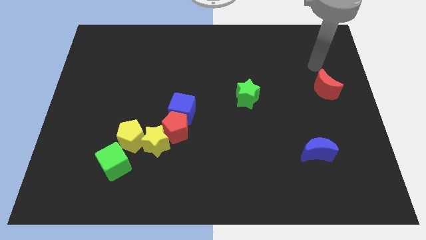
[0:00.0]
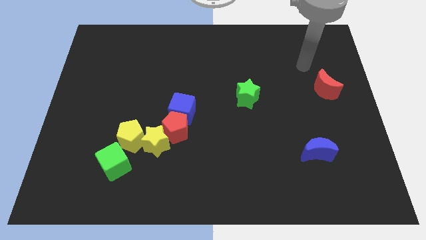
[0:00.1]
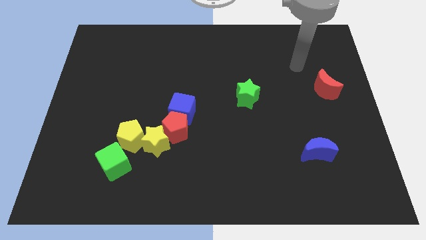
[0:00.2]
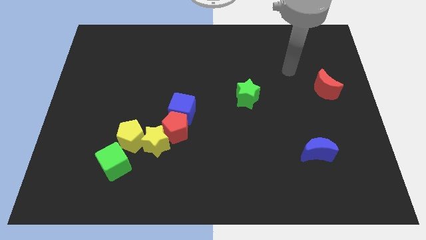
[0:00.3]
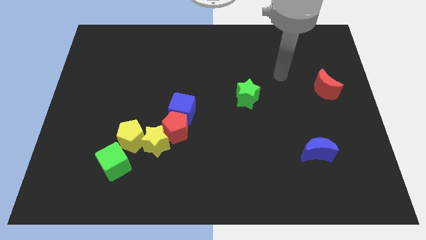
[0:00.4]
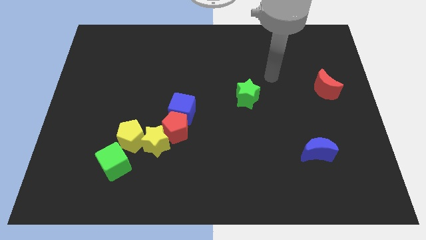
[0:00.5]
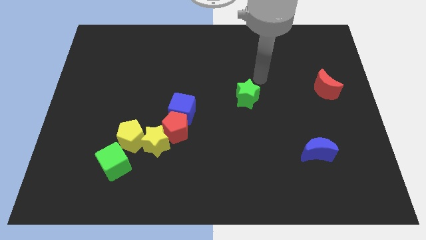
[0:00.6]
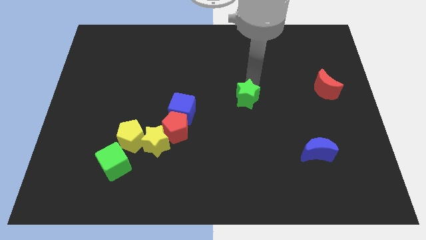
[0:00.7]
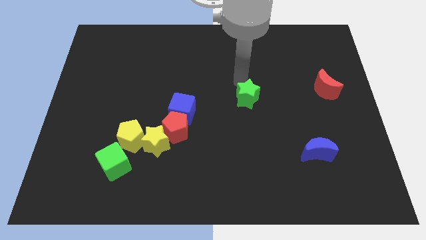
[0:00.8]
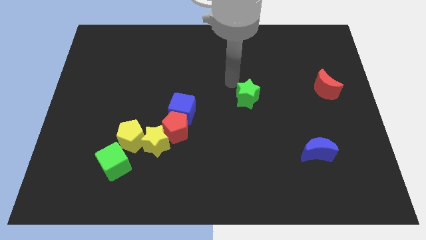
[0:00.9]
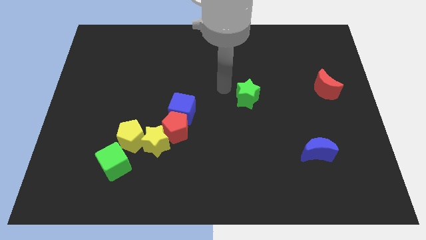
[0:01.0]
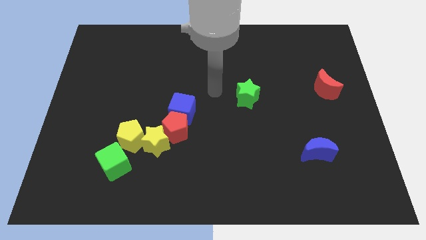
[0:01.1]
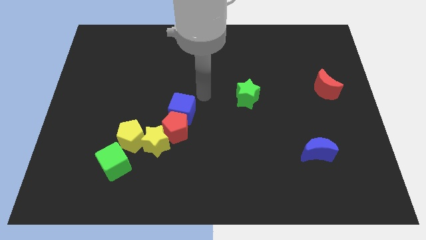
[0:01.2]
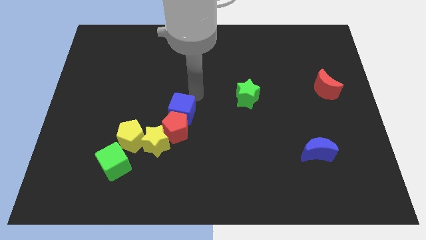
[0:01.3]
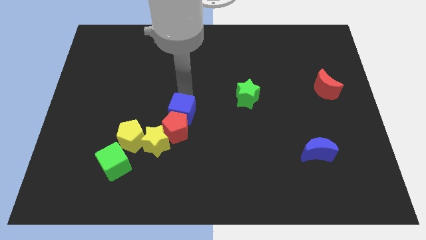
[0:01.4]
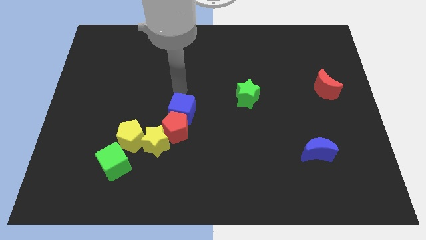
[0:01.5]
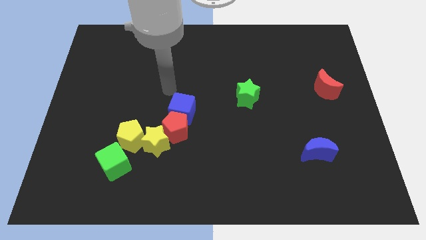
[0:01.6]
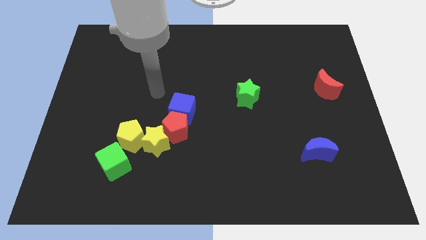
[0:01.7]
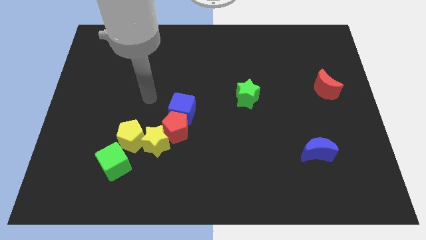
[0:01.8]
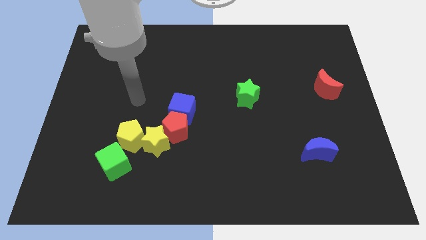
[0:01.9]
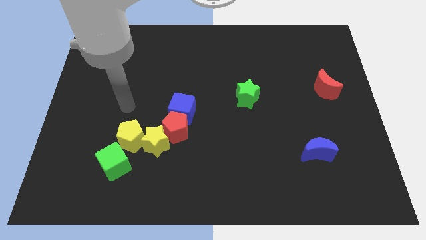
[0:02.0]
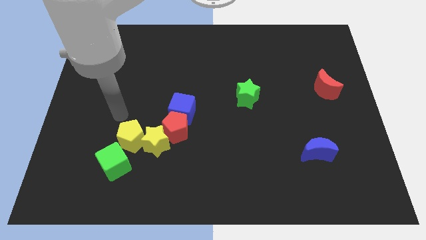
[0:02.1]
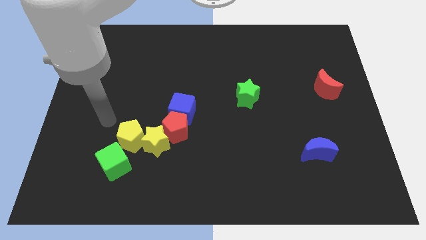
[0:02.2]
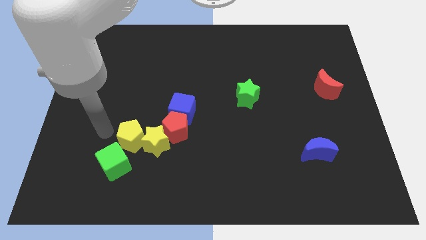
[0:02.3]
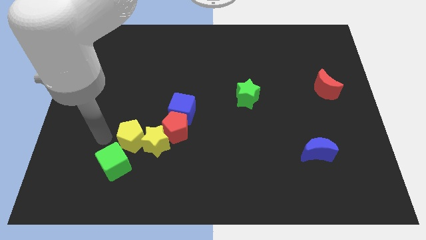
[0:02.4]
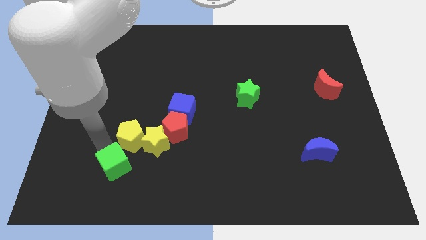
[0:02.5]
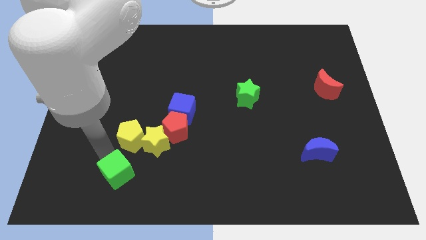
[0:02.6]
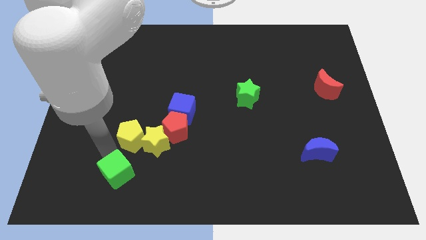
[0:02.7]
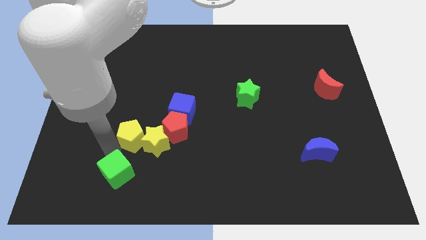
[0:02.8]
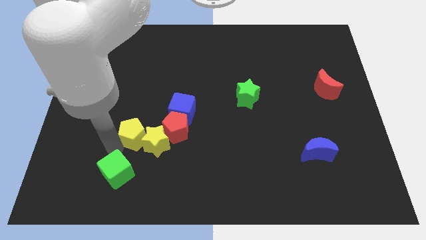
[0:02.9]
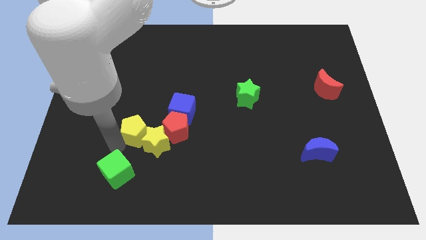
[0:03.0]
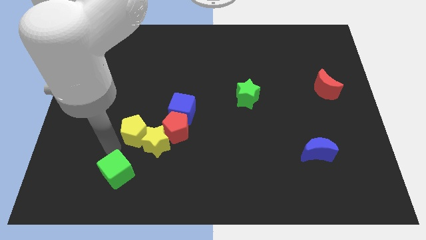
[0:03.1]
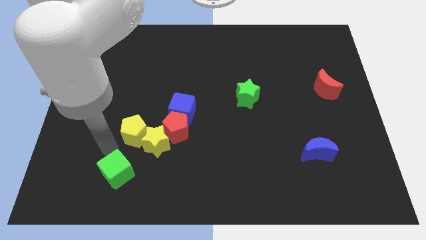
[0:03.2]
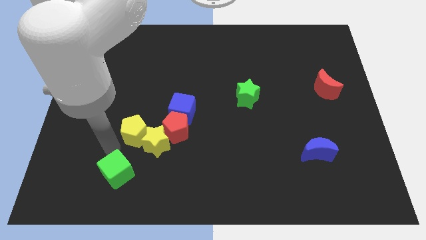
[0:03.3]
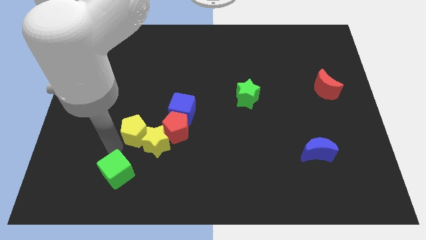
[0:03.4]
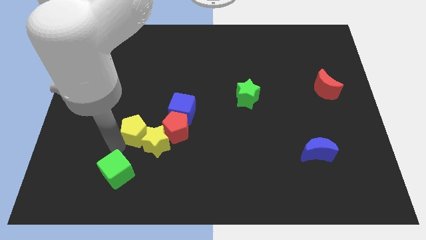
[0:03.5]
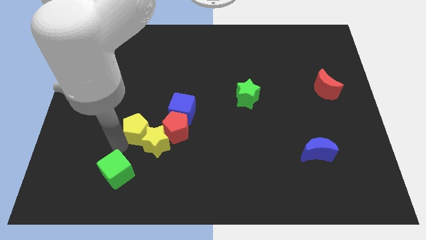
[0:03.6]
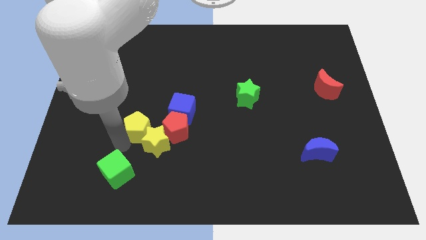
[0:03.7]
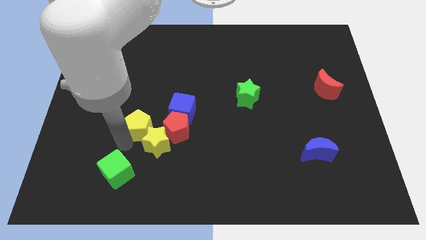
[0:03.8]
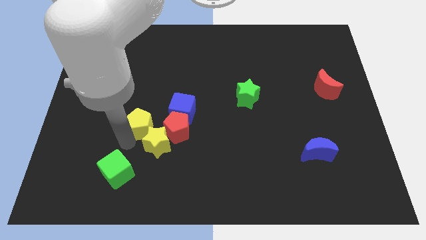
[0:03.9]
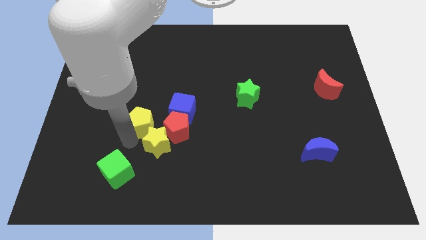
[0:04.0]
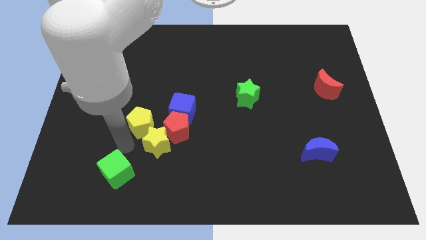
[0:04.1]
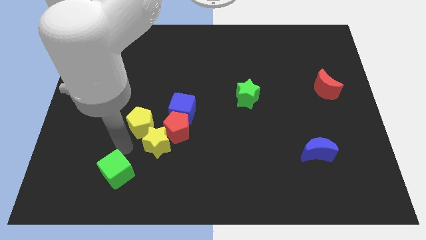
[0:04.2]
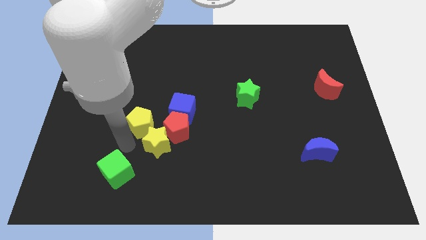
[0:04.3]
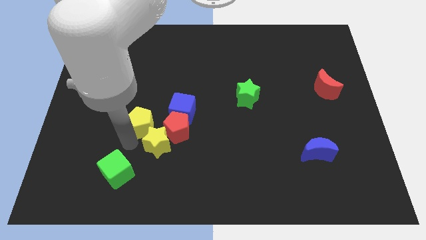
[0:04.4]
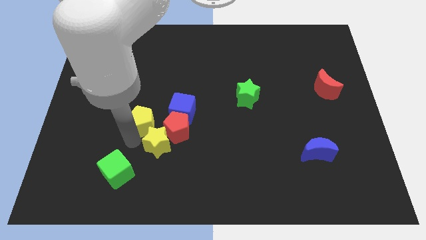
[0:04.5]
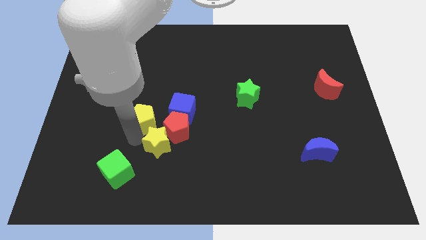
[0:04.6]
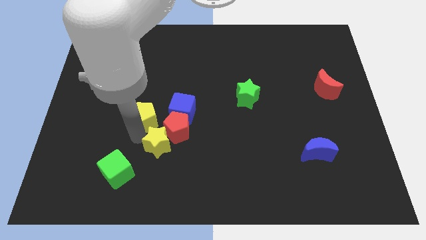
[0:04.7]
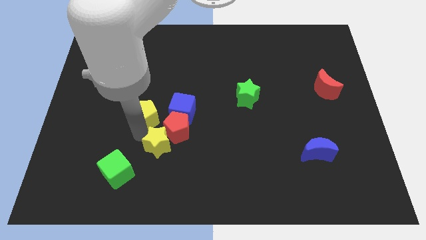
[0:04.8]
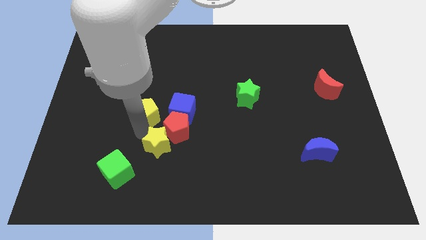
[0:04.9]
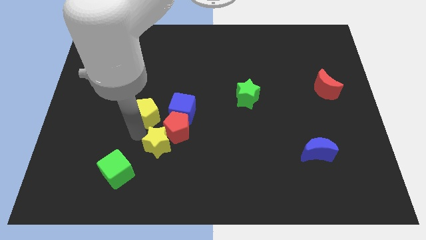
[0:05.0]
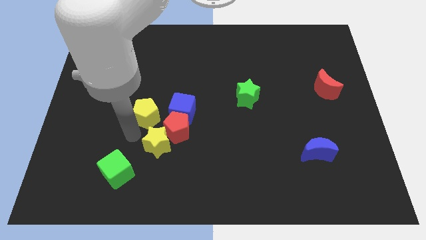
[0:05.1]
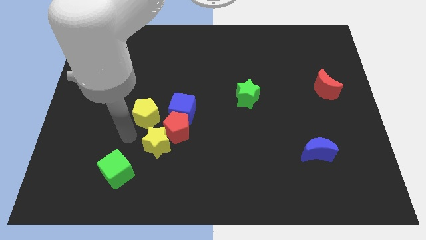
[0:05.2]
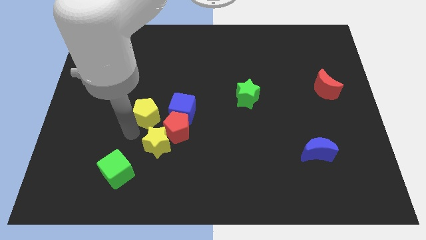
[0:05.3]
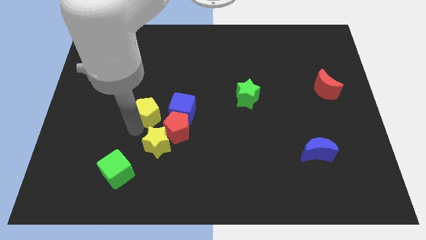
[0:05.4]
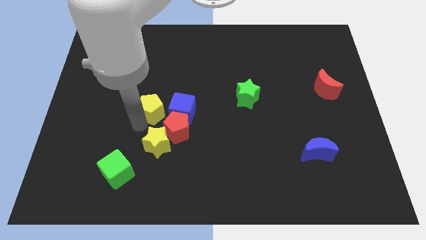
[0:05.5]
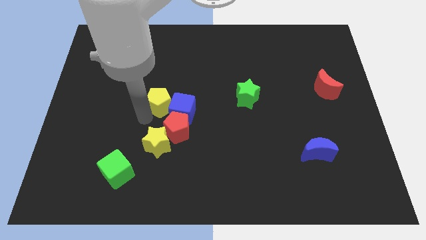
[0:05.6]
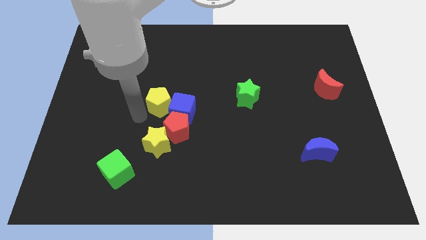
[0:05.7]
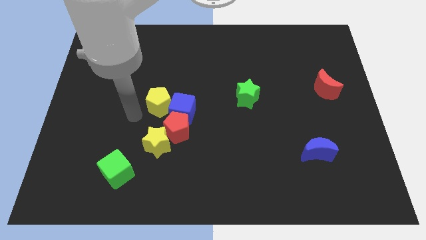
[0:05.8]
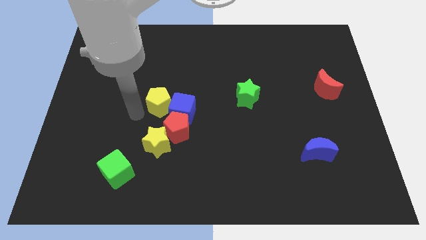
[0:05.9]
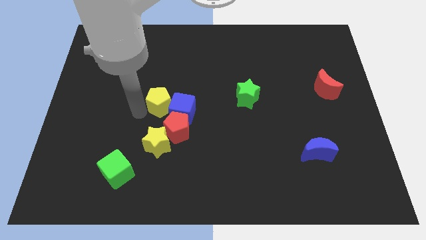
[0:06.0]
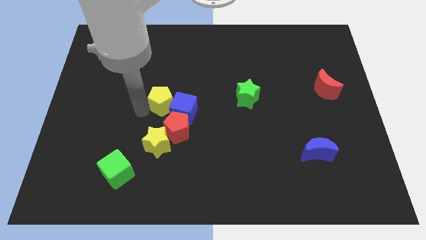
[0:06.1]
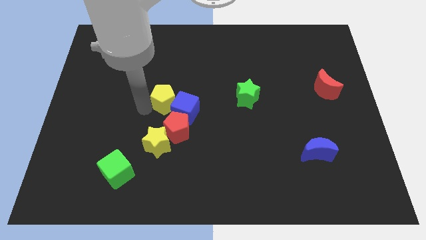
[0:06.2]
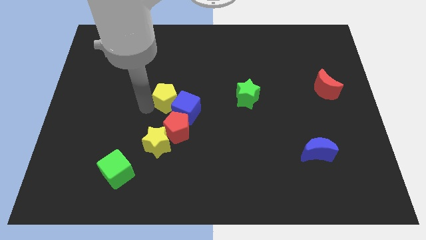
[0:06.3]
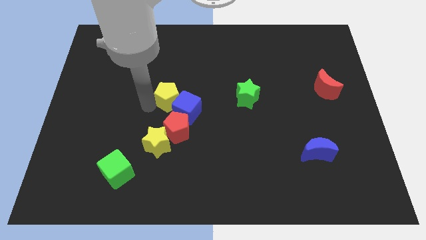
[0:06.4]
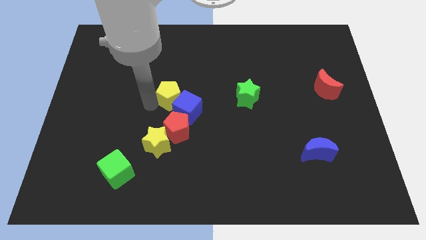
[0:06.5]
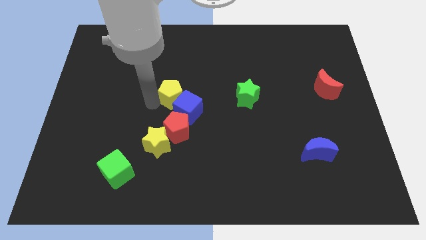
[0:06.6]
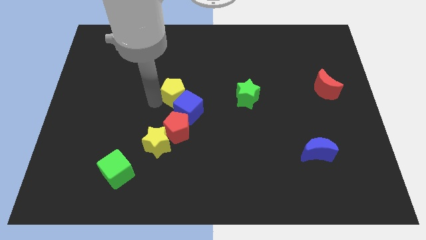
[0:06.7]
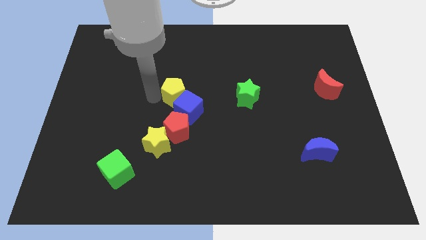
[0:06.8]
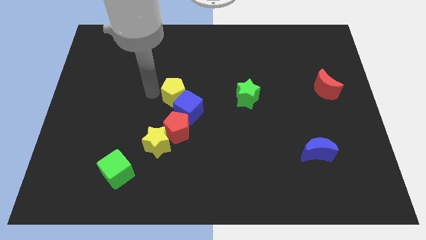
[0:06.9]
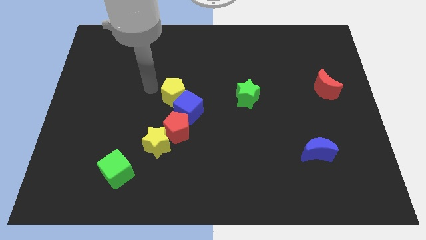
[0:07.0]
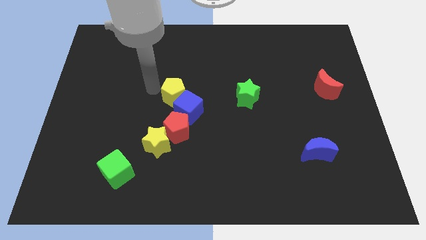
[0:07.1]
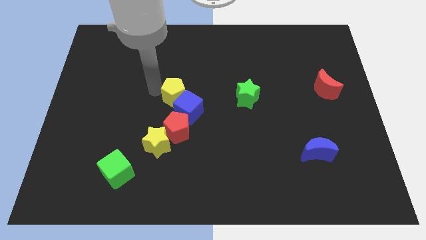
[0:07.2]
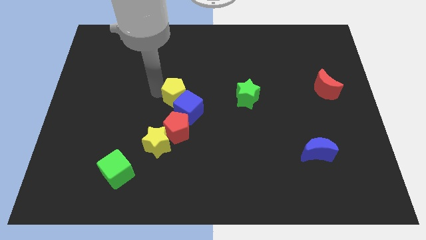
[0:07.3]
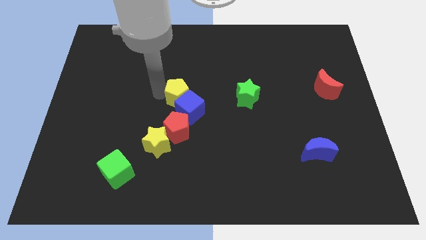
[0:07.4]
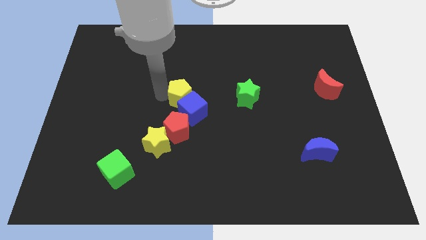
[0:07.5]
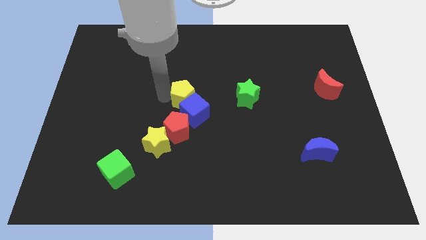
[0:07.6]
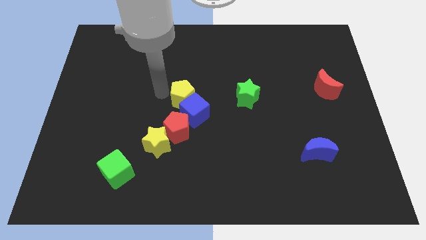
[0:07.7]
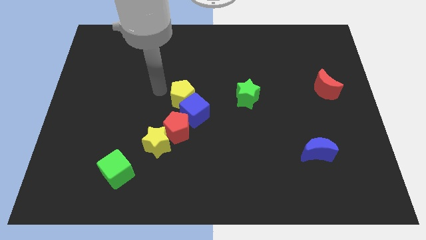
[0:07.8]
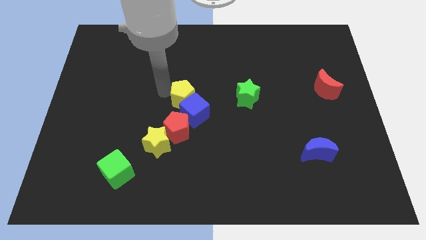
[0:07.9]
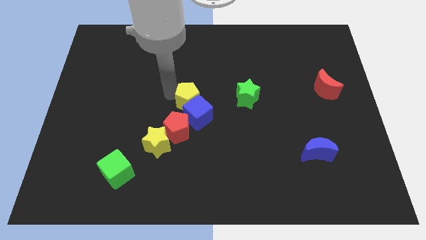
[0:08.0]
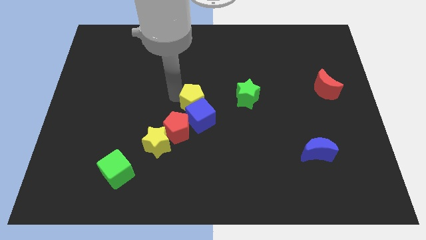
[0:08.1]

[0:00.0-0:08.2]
move the yellow pentagon to the right a bit
